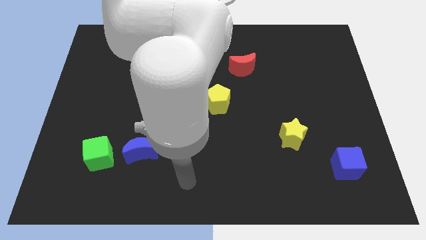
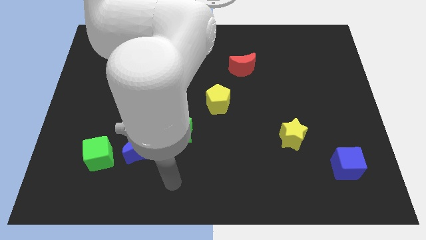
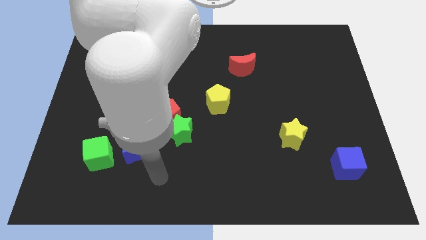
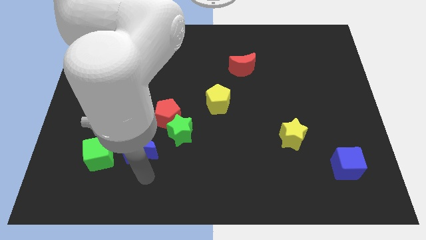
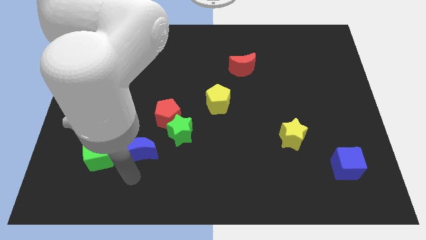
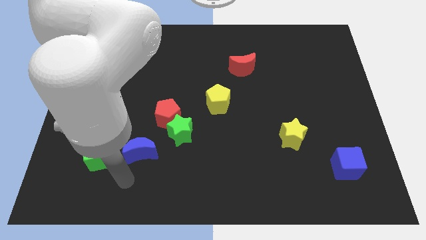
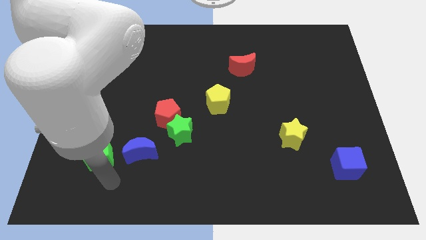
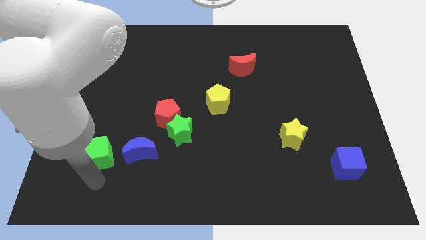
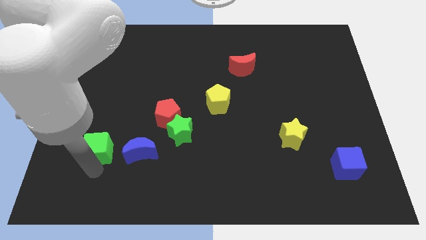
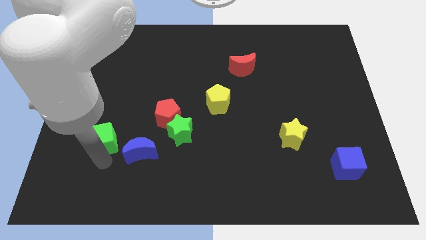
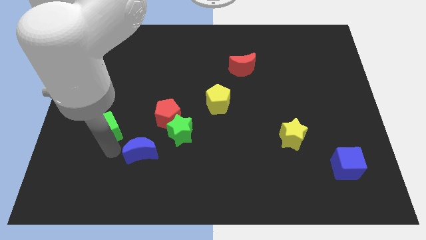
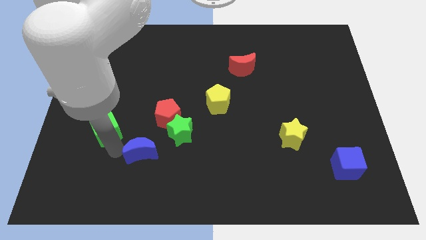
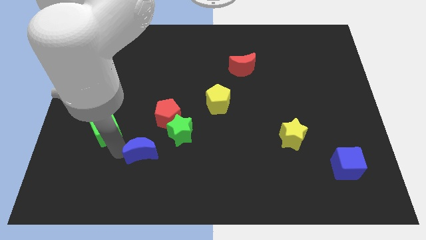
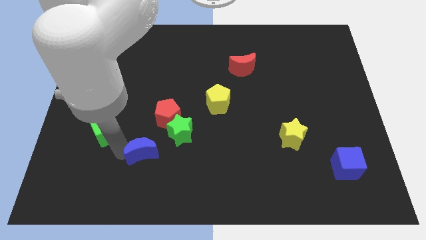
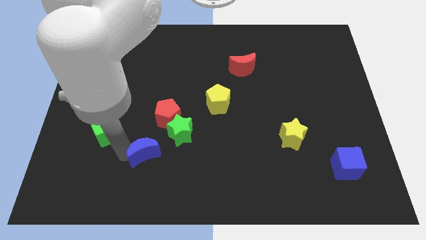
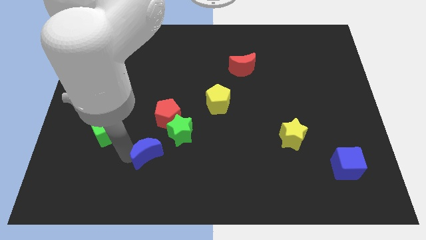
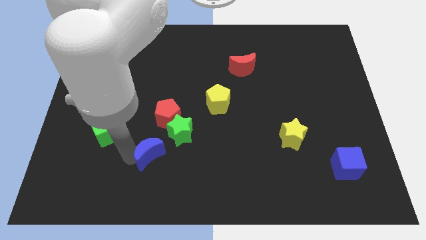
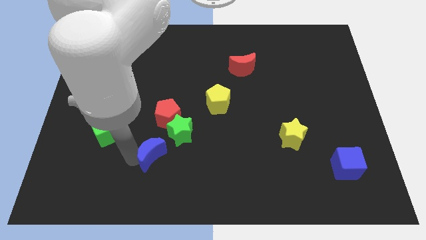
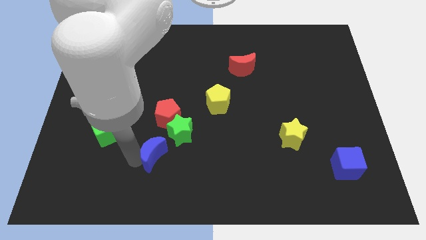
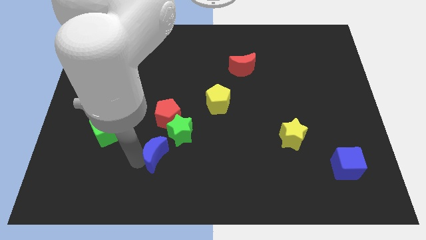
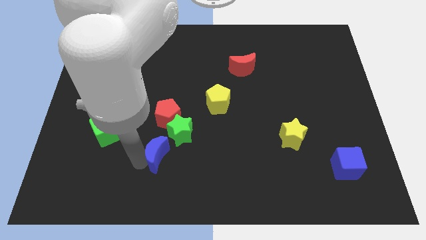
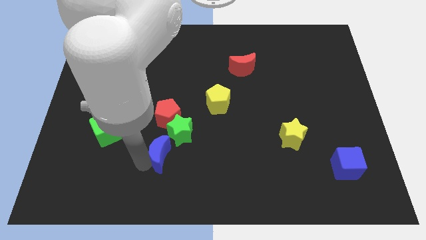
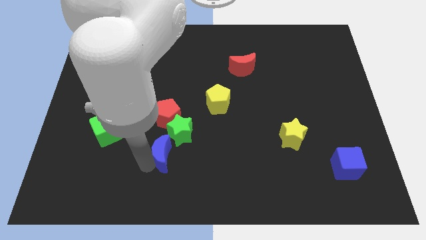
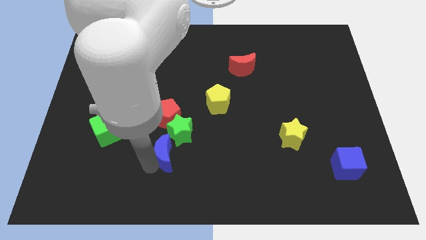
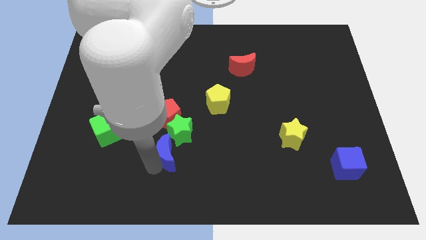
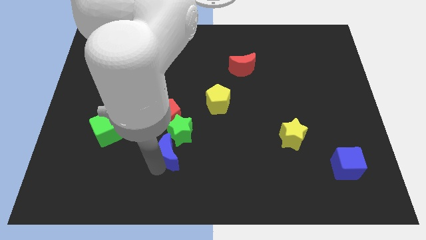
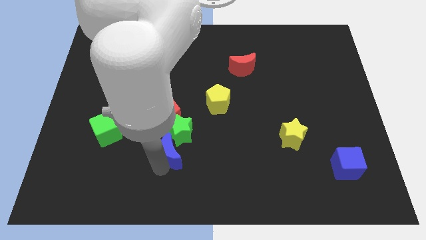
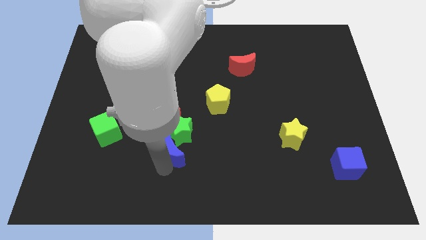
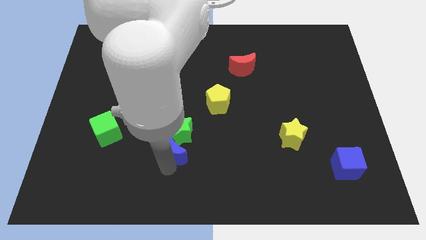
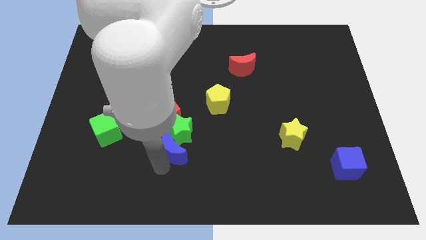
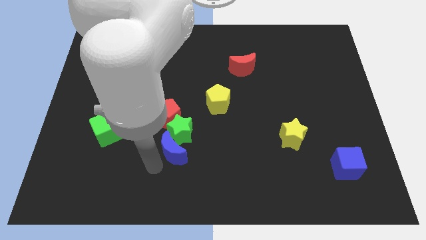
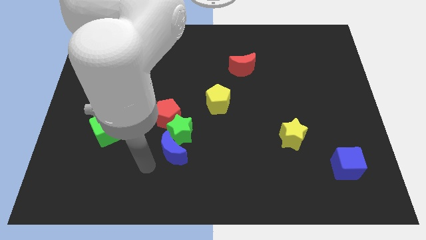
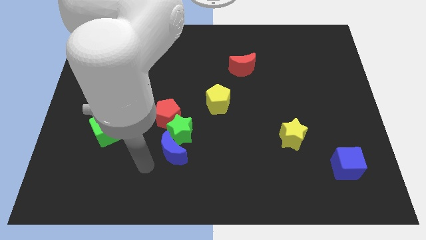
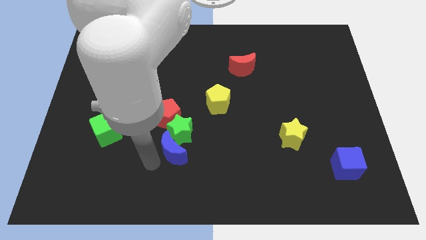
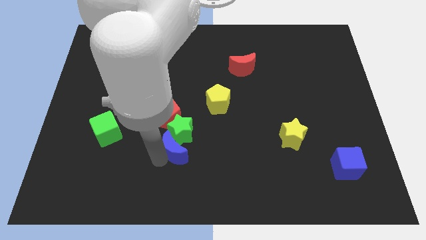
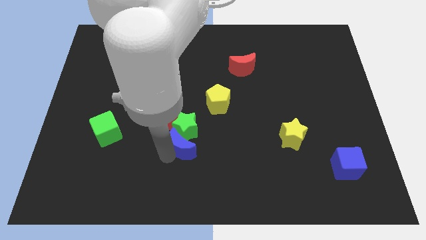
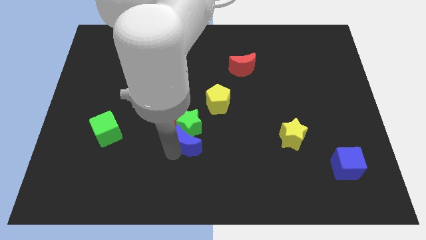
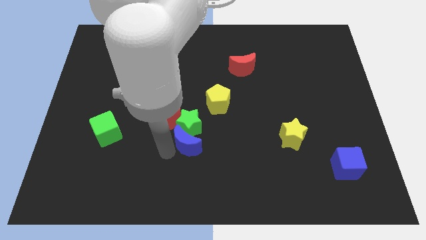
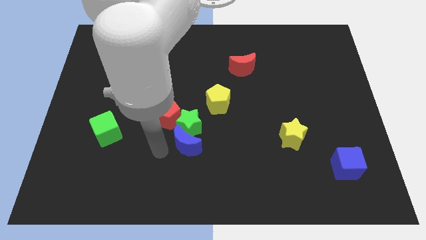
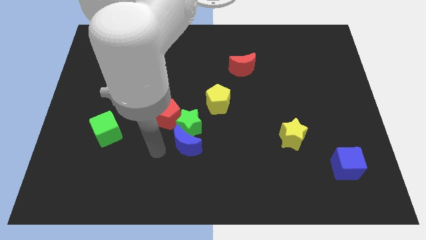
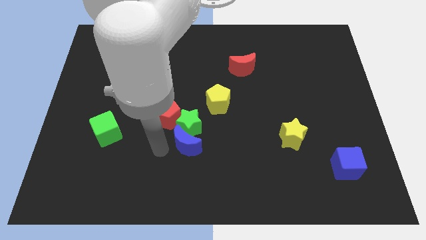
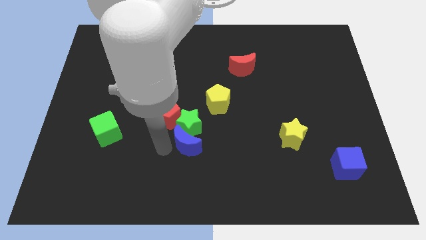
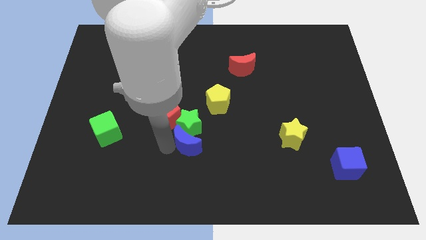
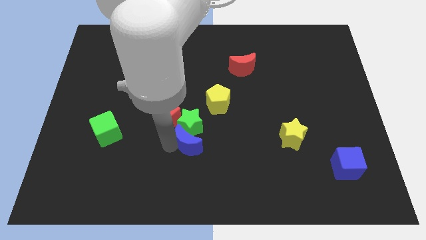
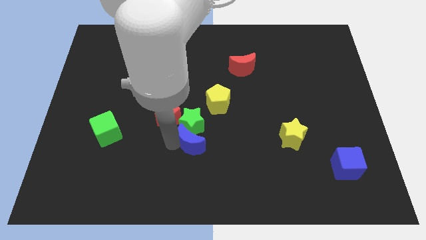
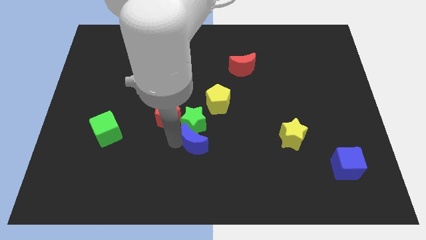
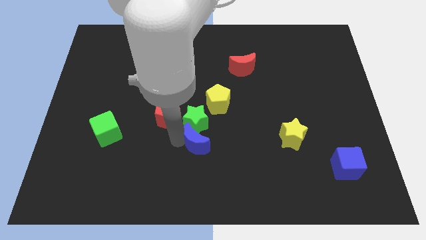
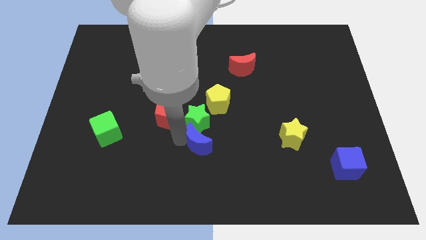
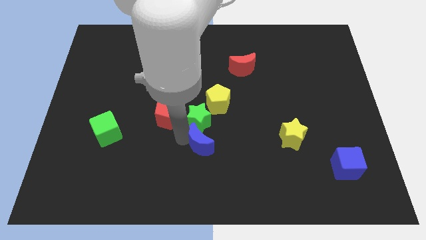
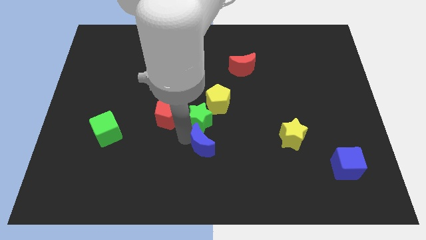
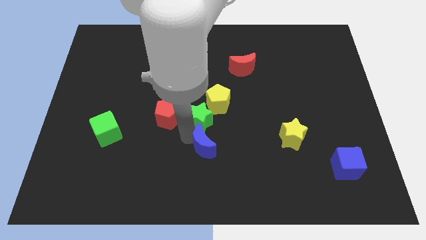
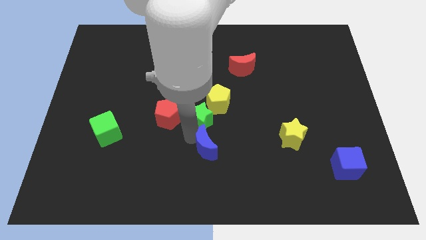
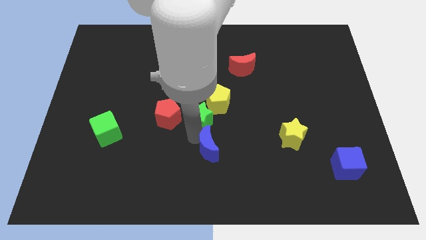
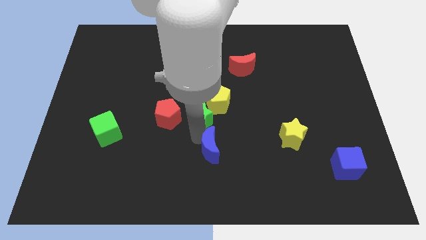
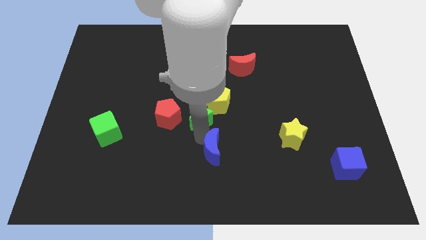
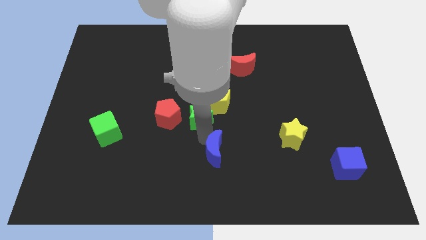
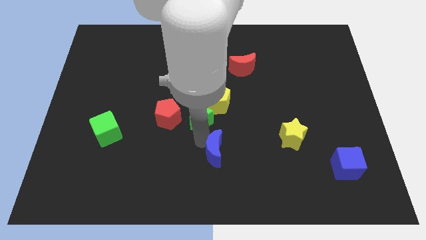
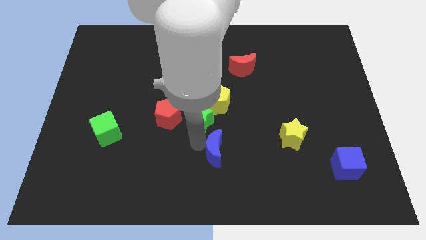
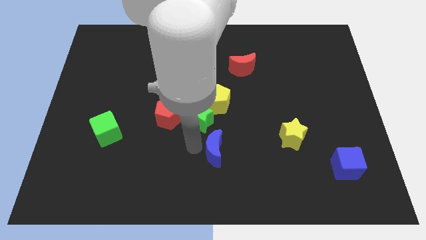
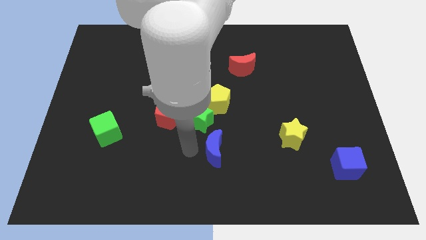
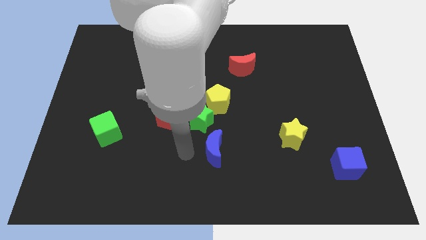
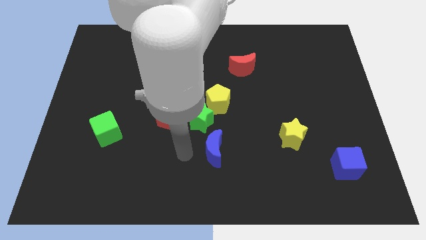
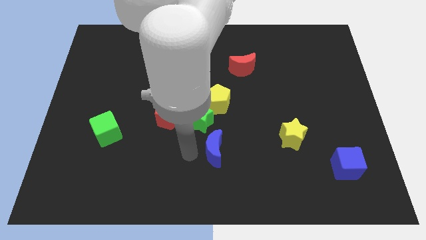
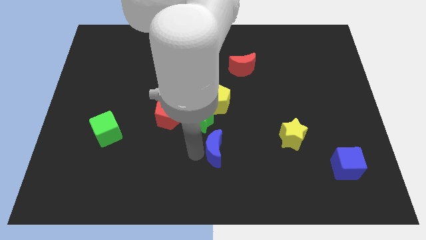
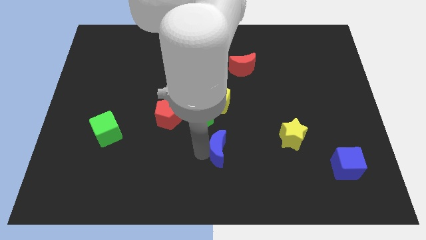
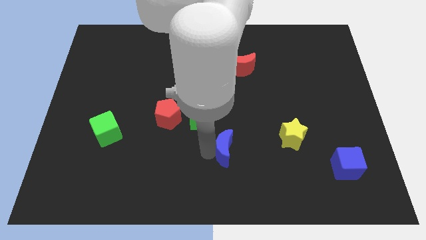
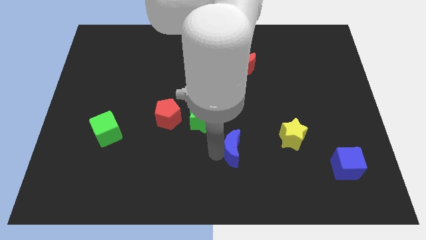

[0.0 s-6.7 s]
push the blue moon left of the yellow star
